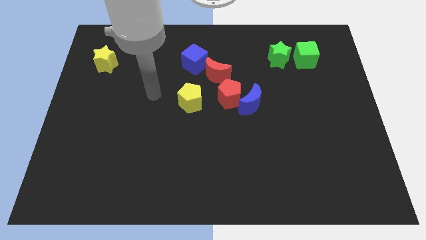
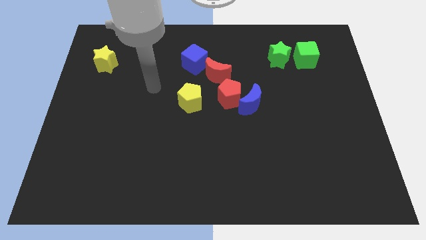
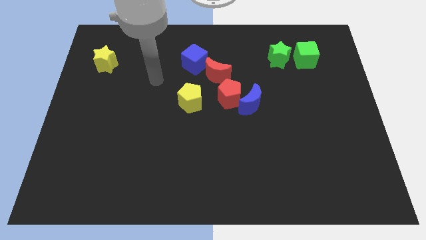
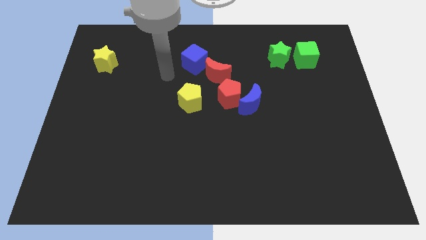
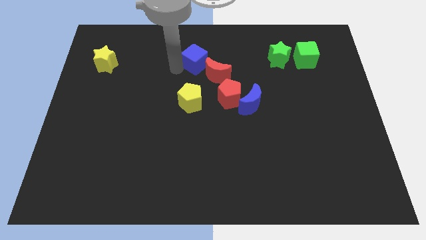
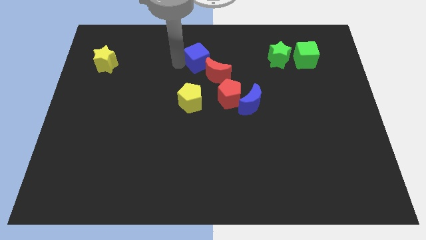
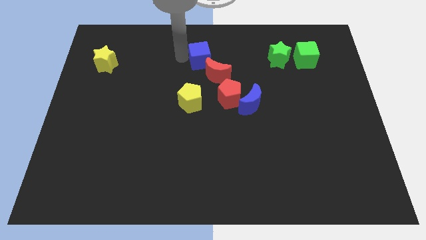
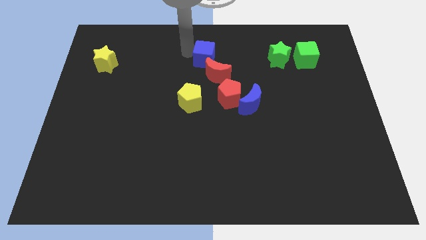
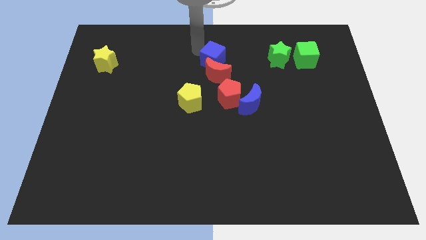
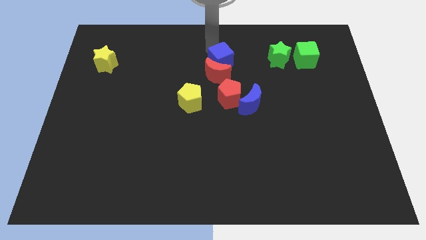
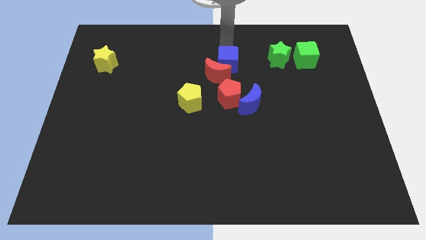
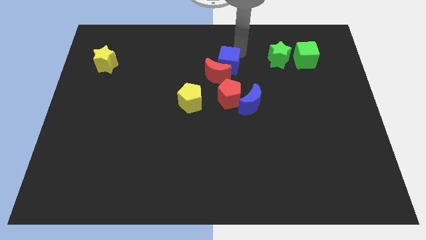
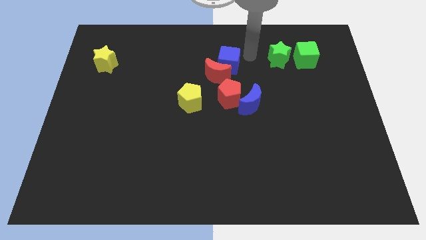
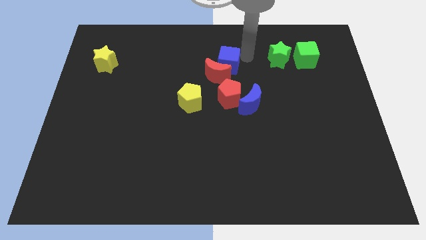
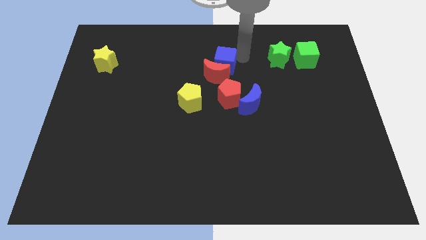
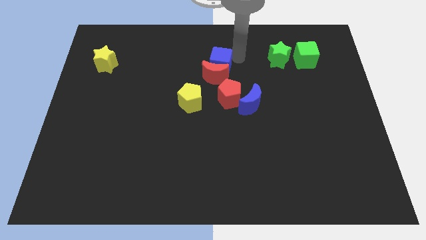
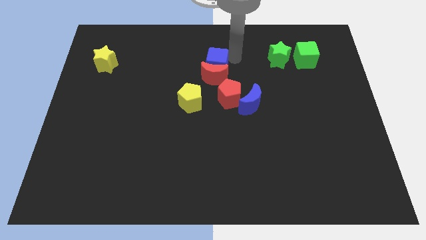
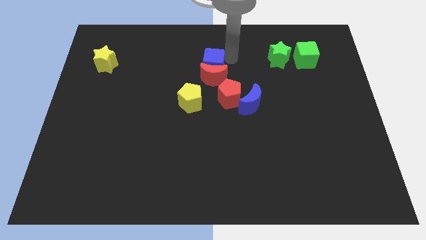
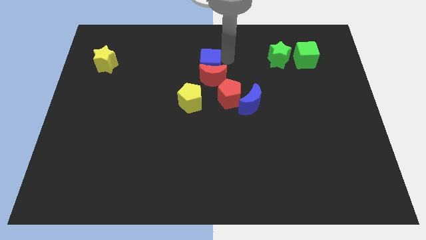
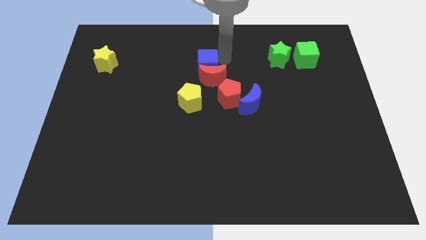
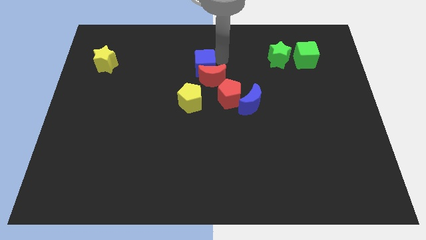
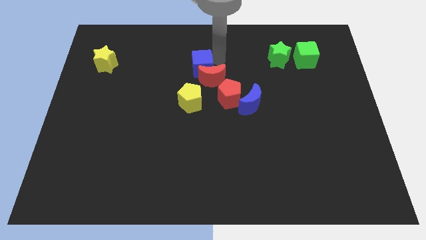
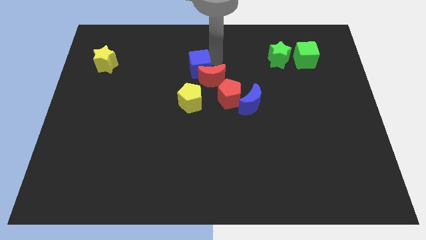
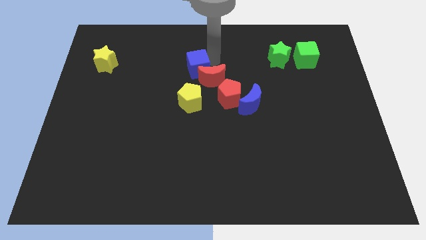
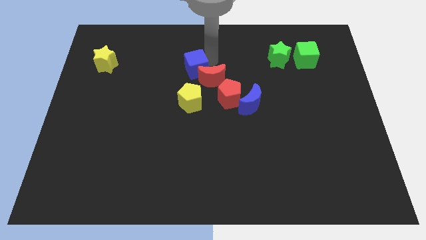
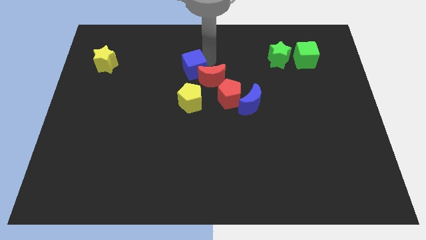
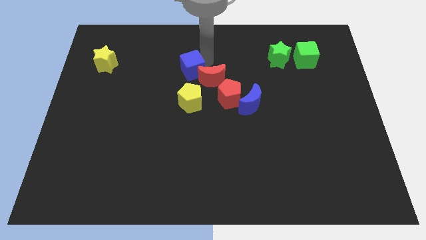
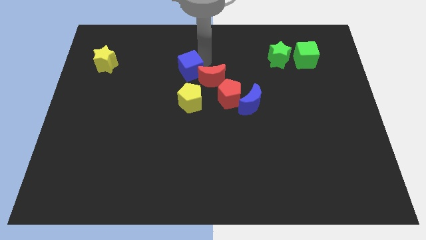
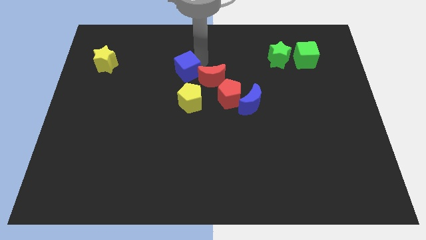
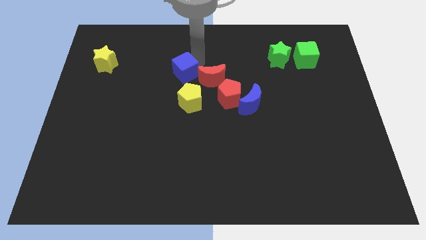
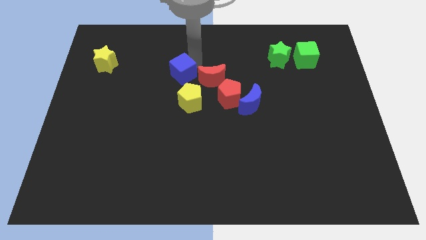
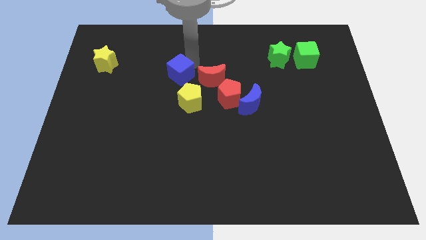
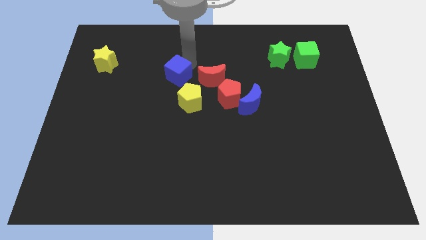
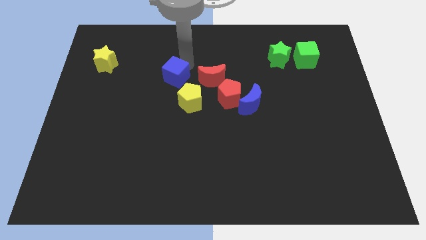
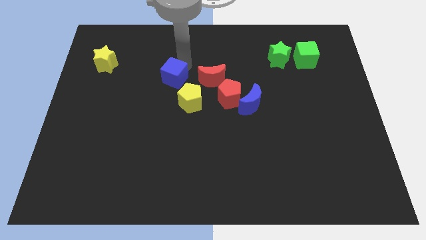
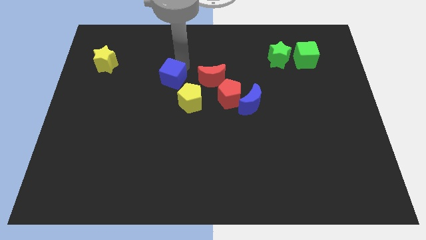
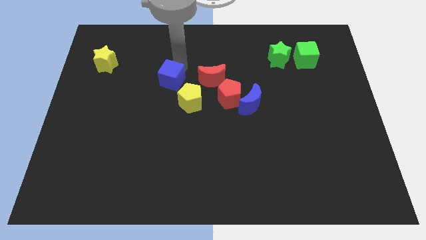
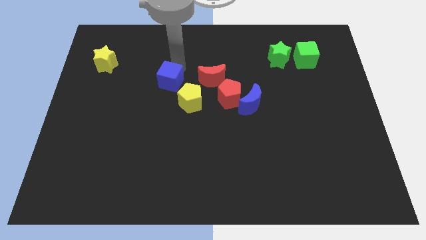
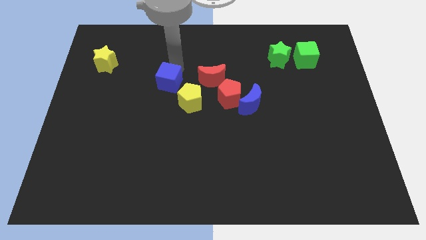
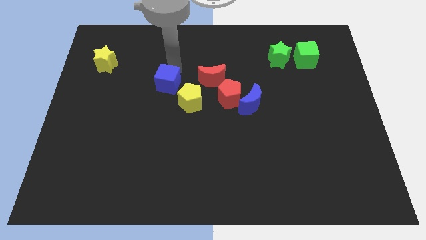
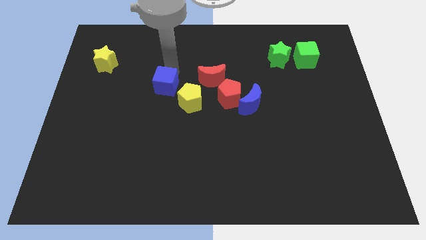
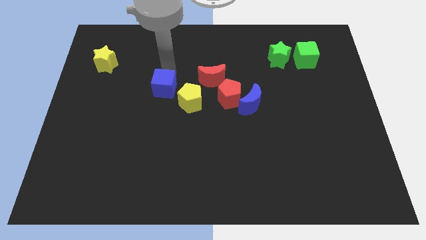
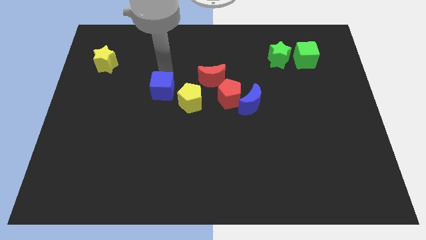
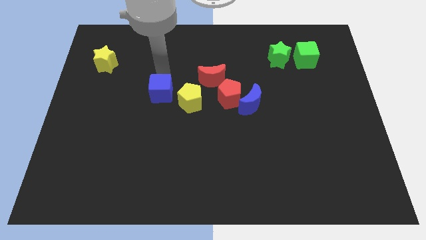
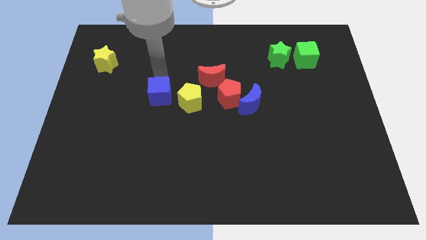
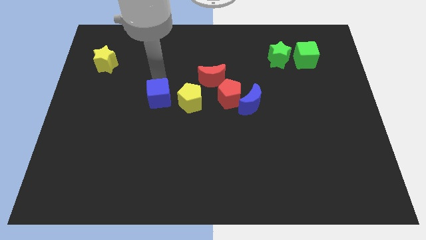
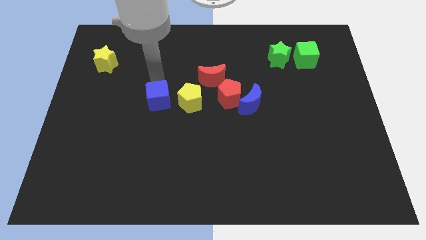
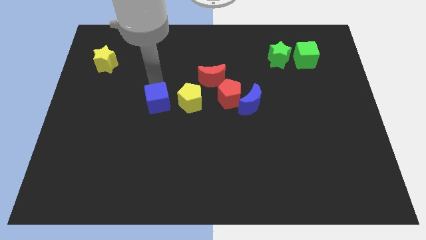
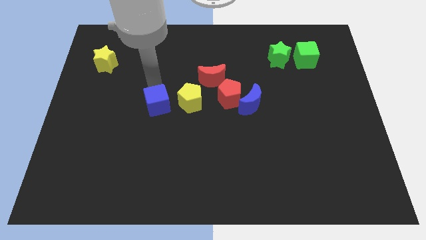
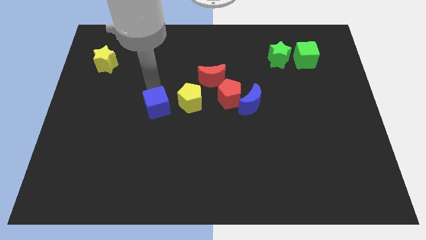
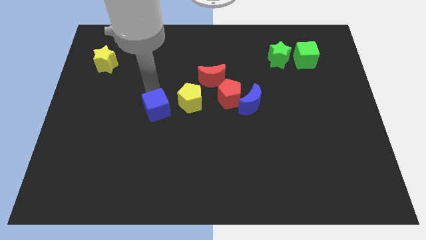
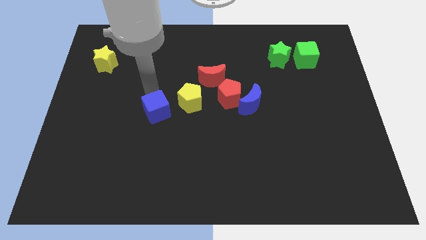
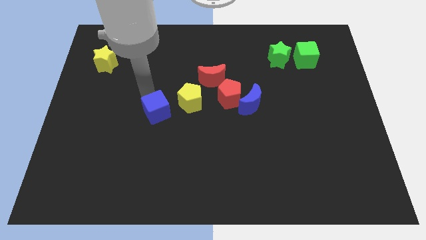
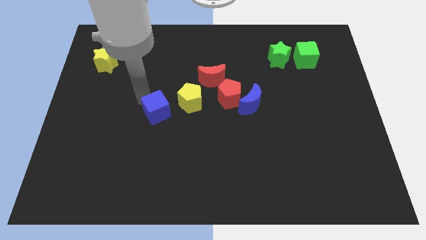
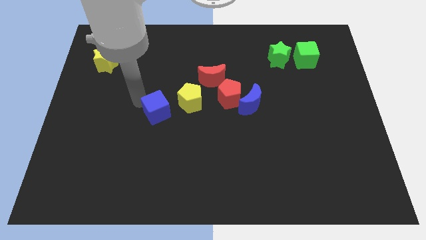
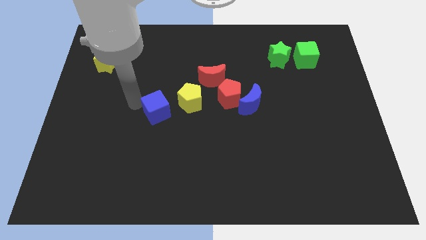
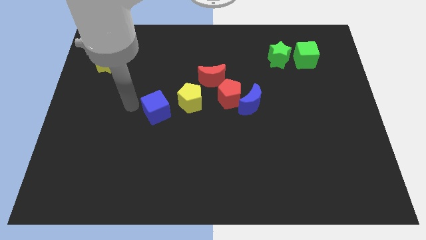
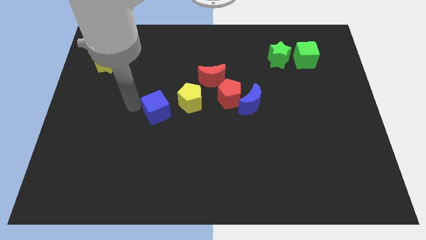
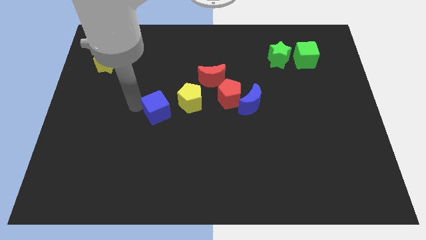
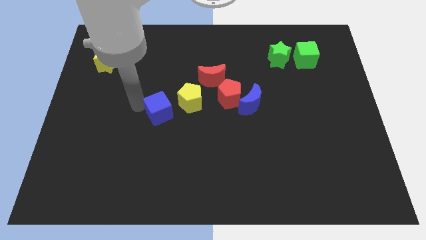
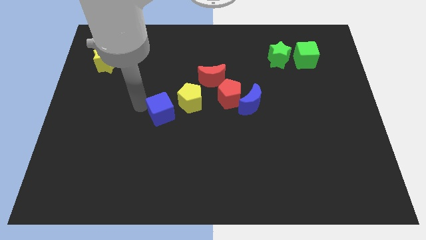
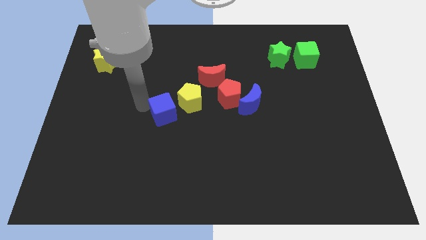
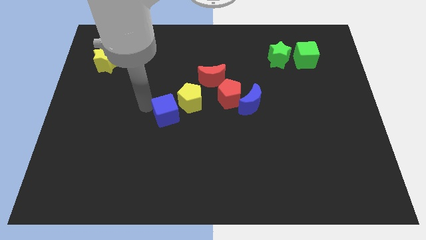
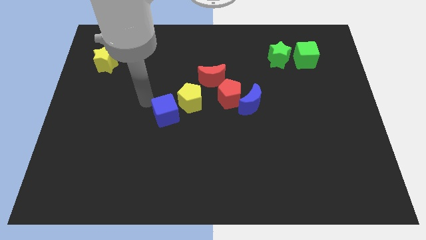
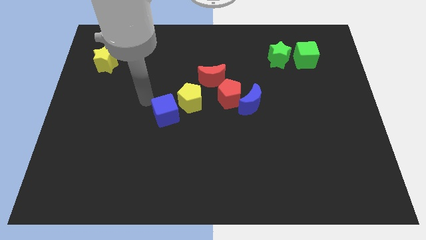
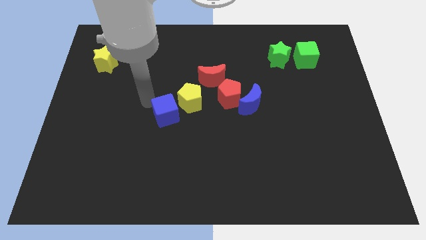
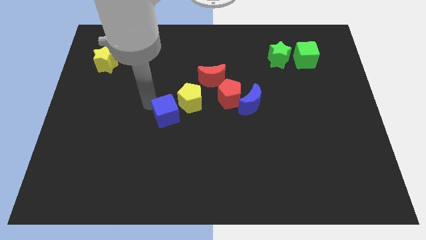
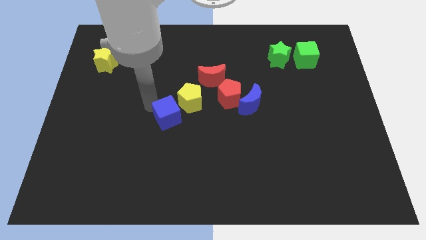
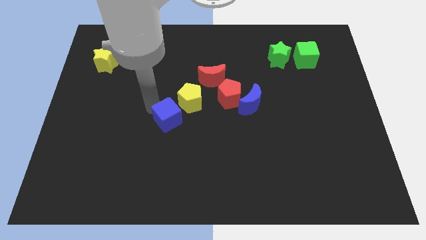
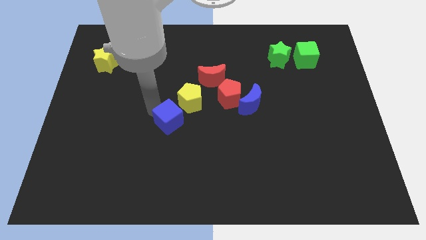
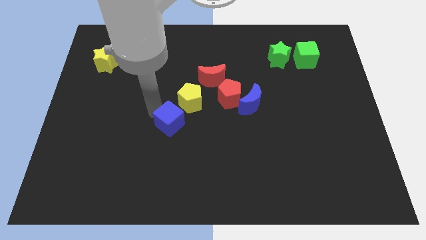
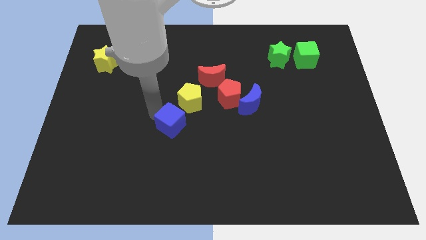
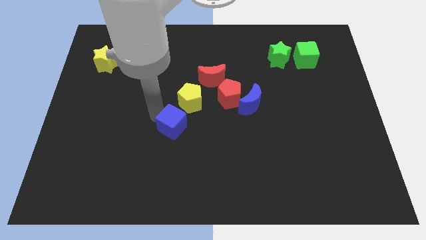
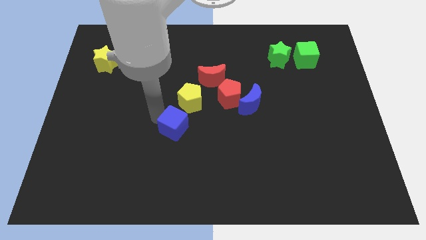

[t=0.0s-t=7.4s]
slide the blue cube down

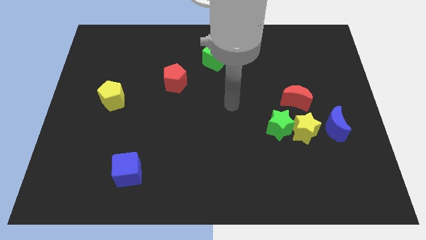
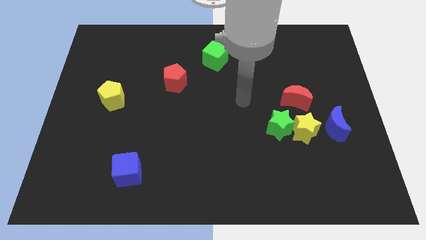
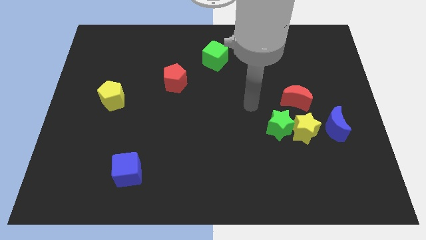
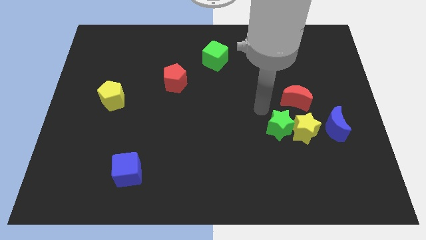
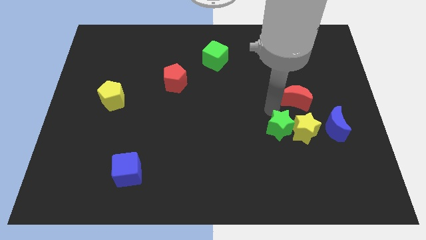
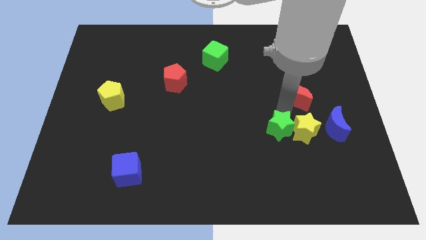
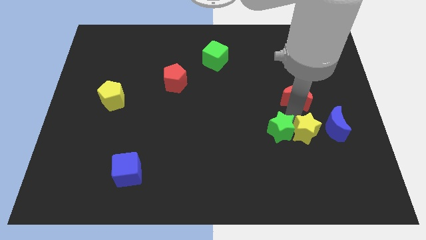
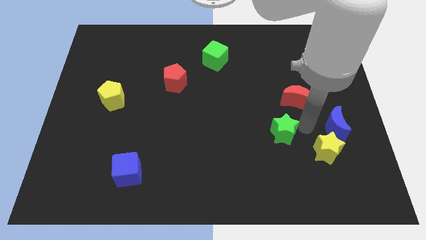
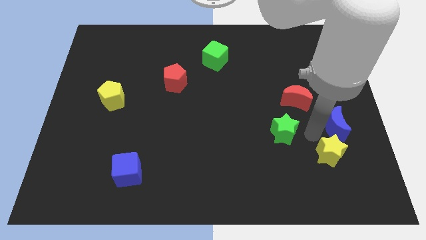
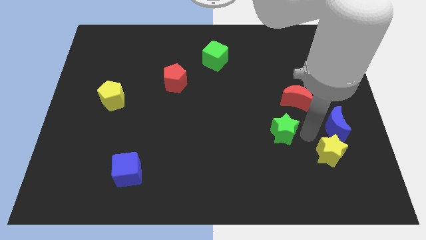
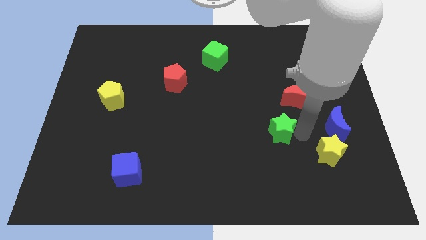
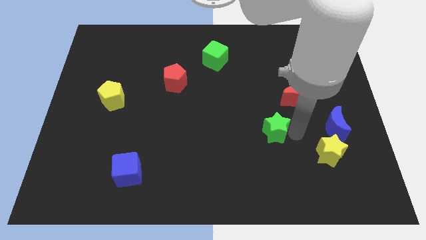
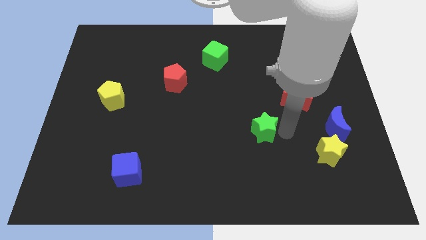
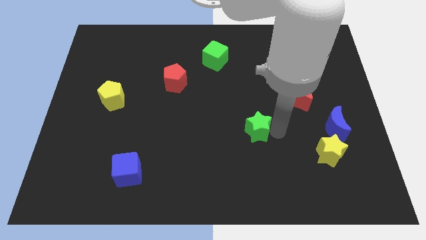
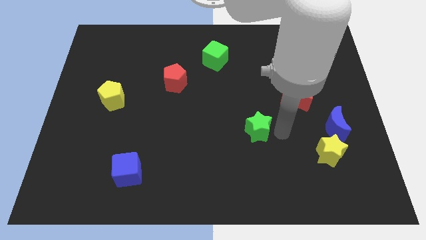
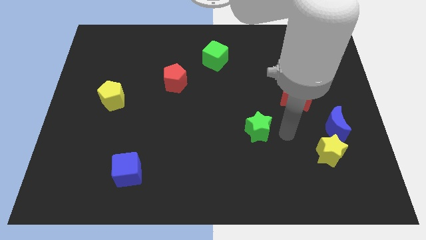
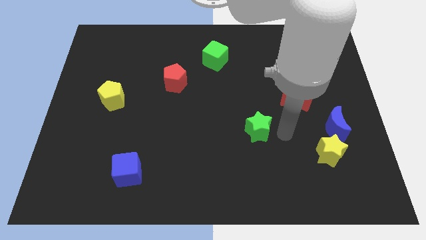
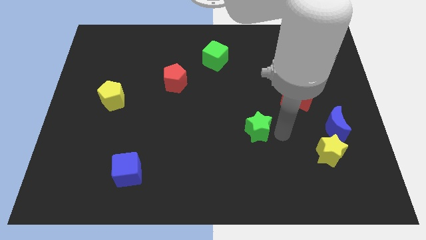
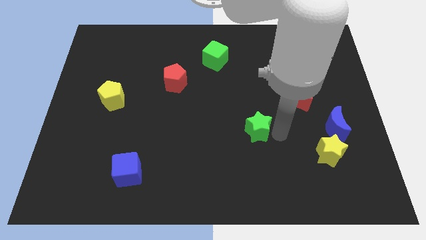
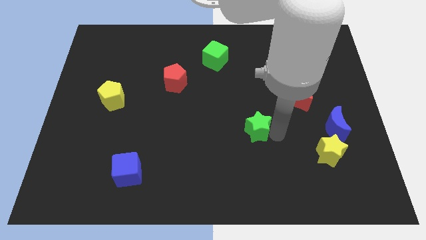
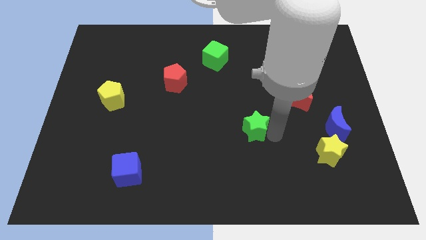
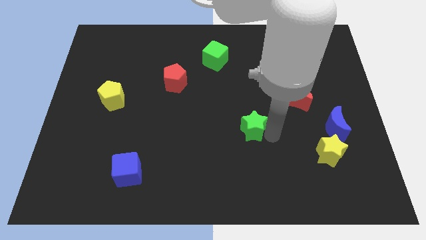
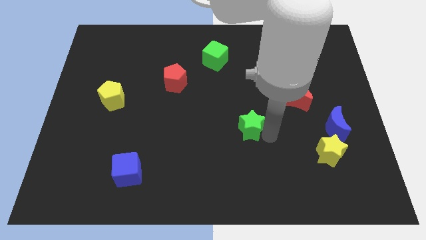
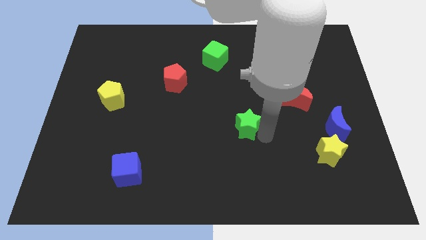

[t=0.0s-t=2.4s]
push the green star a bit to the left
